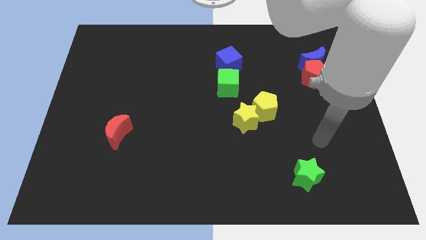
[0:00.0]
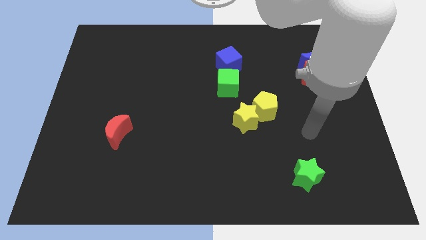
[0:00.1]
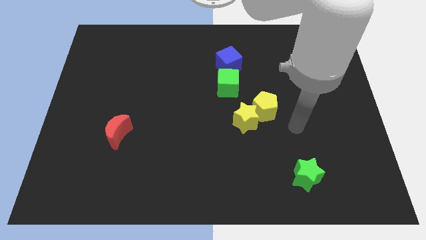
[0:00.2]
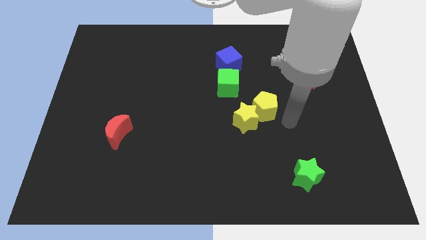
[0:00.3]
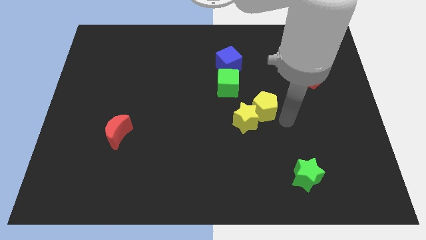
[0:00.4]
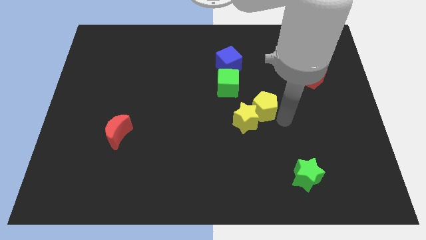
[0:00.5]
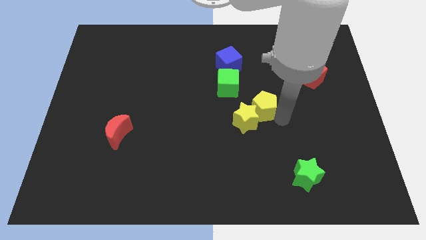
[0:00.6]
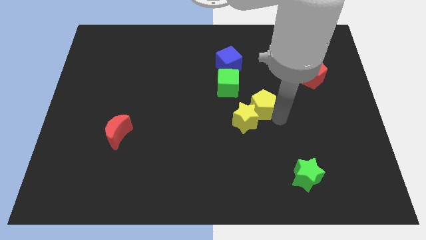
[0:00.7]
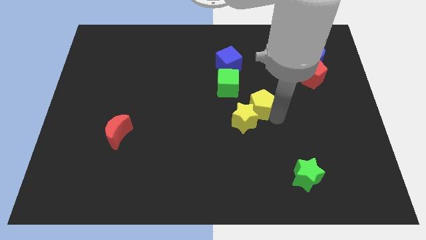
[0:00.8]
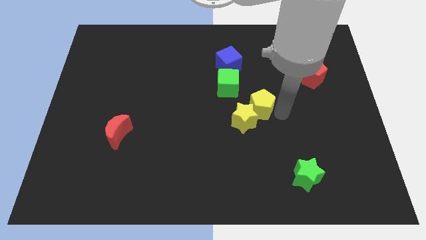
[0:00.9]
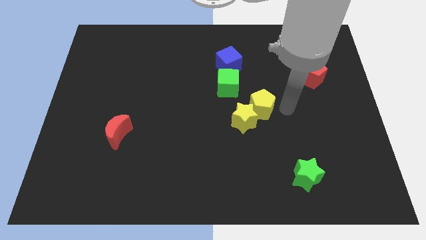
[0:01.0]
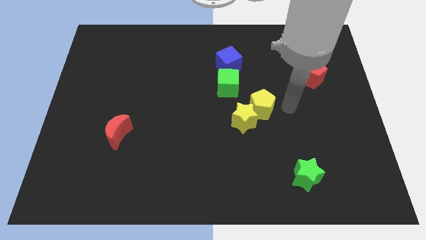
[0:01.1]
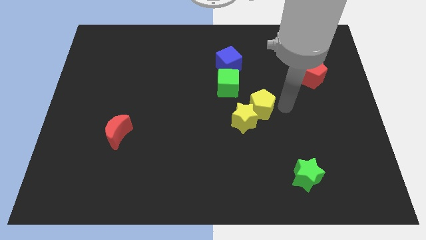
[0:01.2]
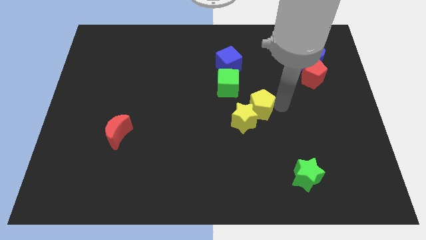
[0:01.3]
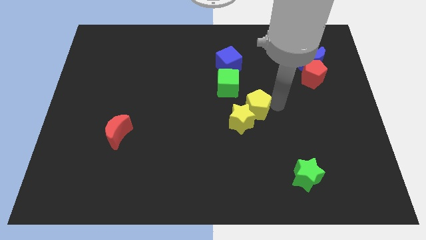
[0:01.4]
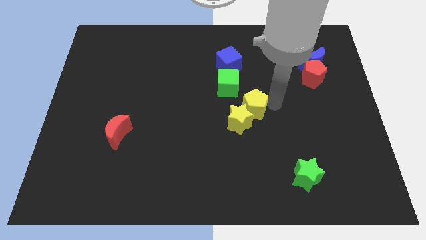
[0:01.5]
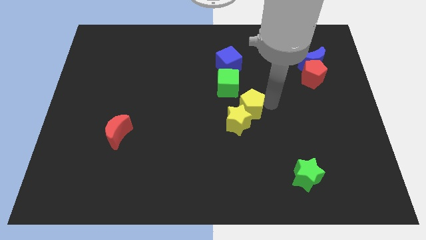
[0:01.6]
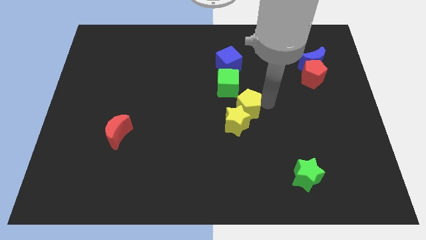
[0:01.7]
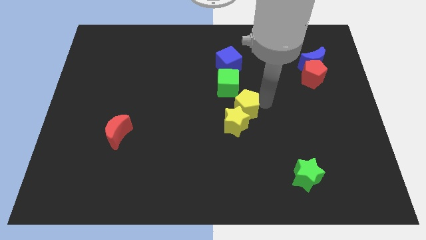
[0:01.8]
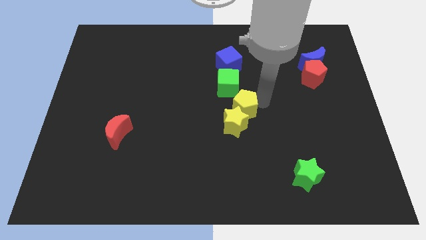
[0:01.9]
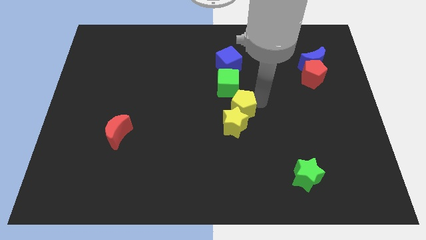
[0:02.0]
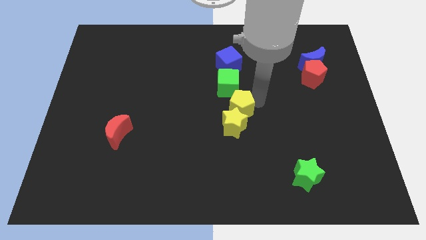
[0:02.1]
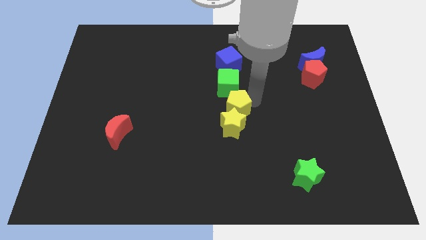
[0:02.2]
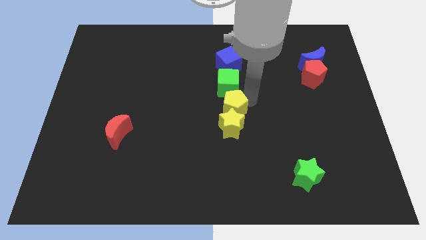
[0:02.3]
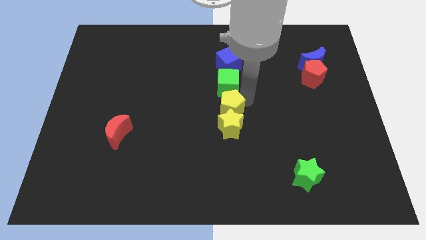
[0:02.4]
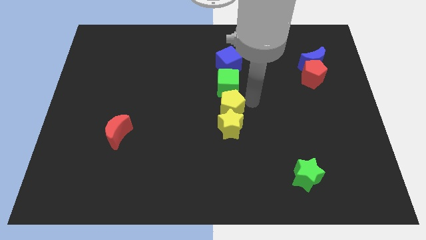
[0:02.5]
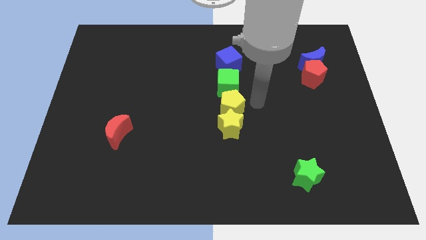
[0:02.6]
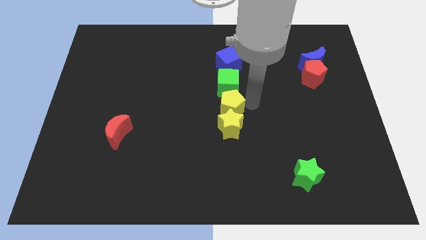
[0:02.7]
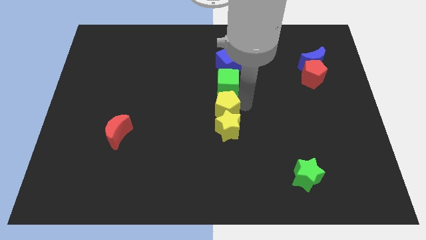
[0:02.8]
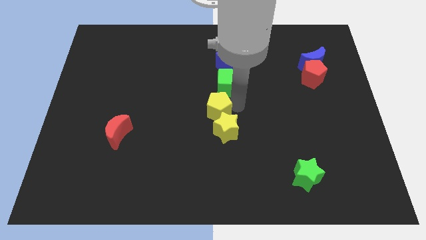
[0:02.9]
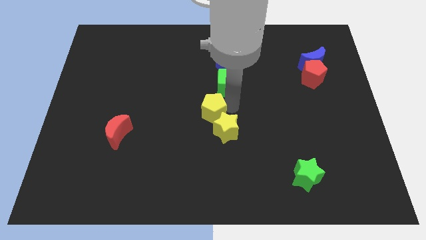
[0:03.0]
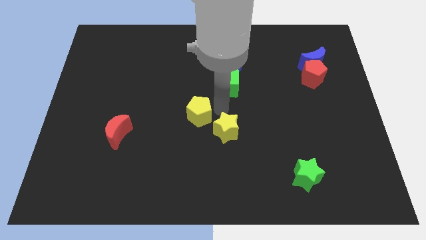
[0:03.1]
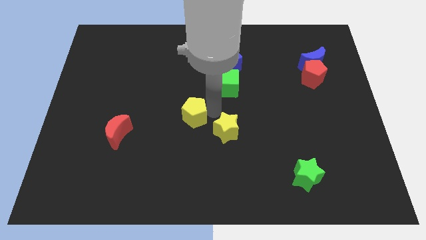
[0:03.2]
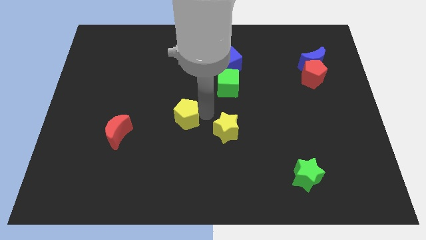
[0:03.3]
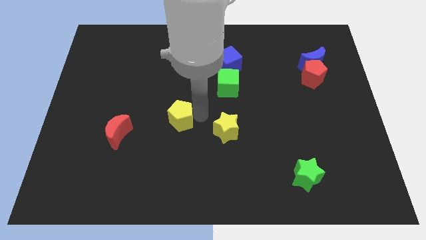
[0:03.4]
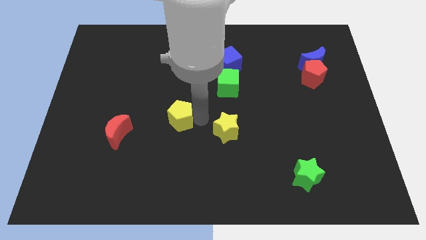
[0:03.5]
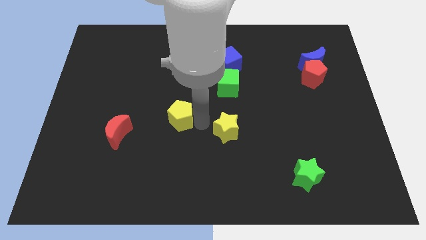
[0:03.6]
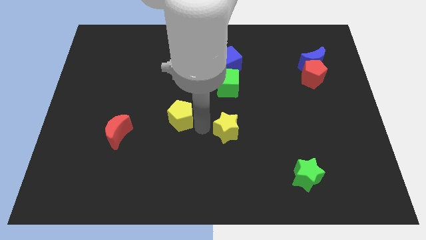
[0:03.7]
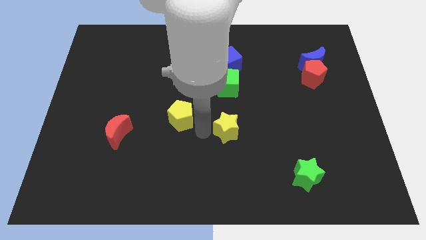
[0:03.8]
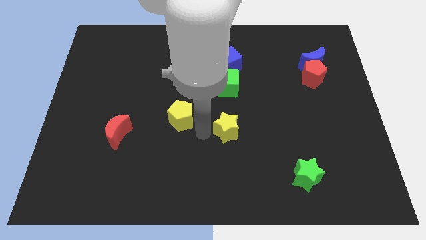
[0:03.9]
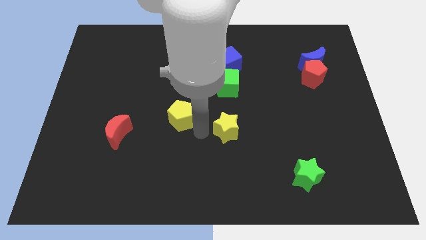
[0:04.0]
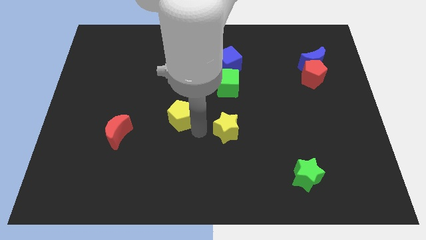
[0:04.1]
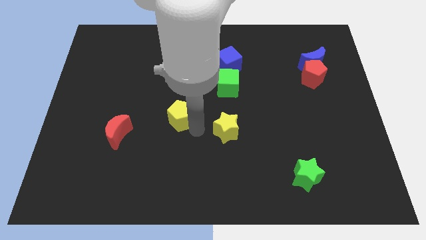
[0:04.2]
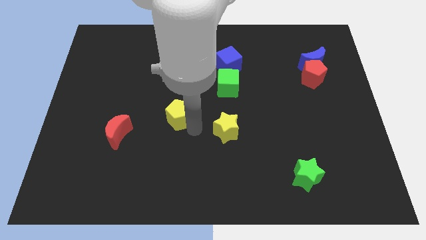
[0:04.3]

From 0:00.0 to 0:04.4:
push the yellow pentagon left

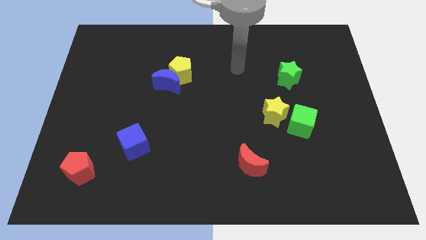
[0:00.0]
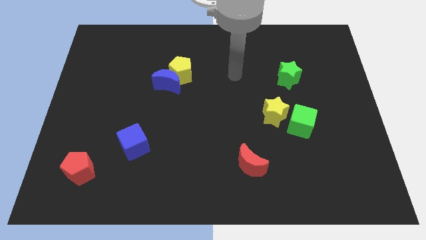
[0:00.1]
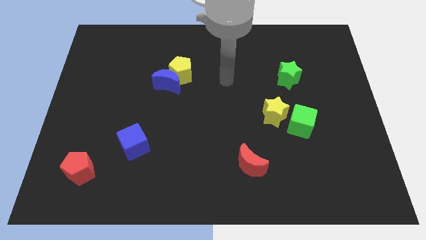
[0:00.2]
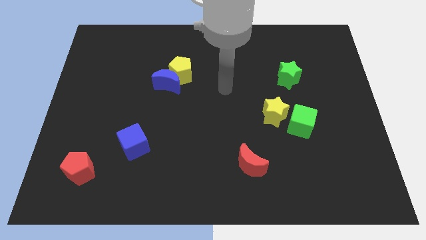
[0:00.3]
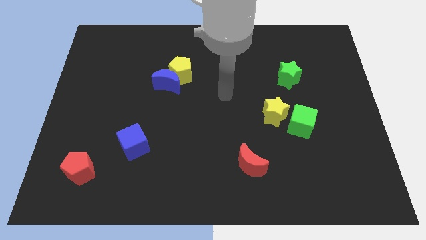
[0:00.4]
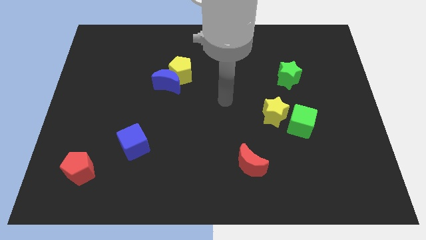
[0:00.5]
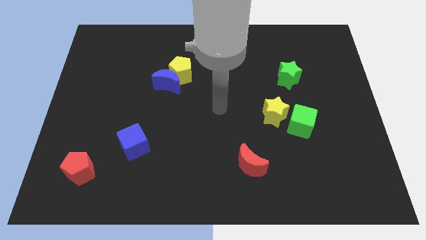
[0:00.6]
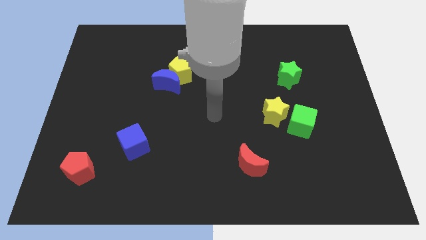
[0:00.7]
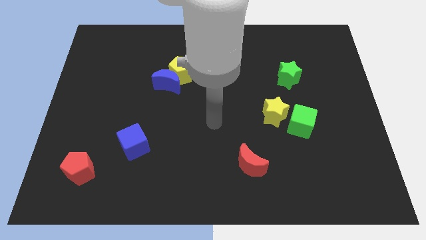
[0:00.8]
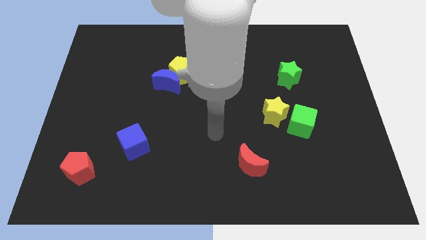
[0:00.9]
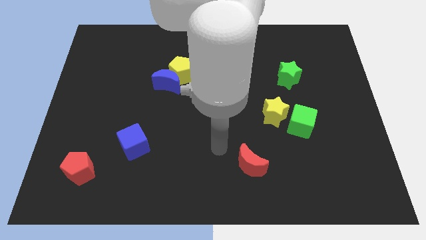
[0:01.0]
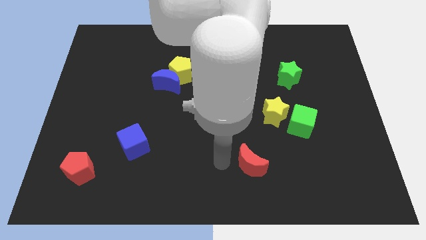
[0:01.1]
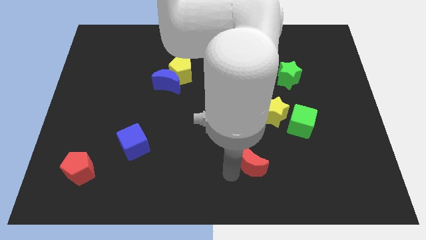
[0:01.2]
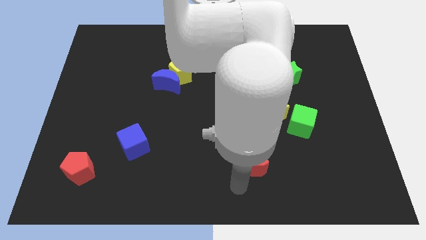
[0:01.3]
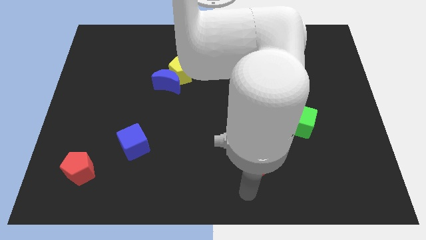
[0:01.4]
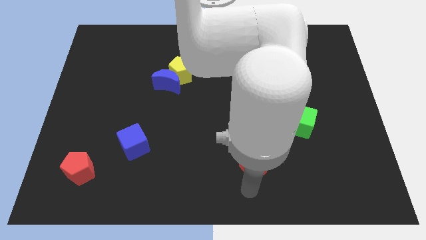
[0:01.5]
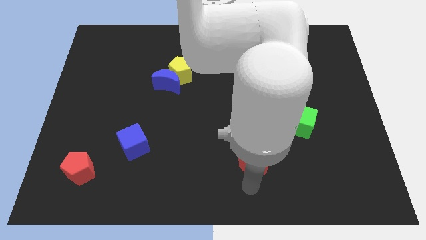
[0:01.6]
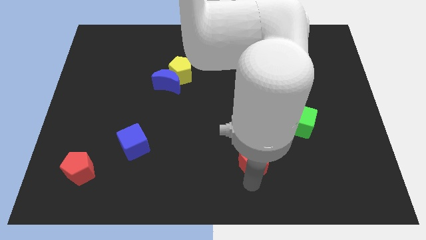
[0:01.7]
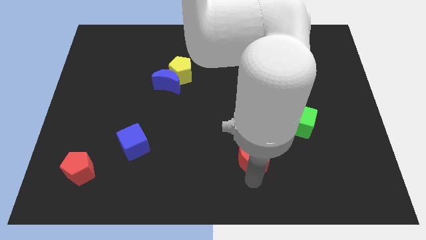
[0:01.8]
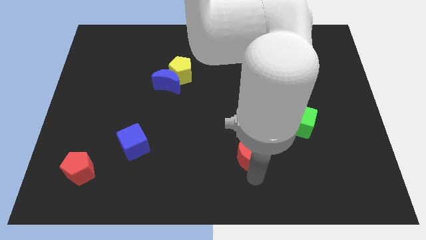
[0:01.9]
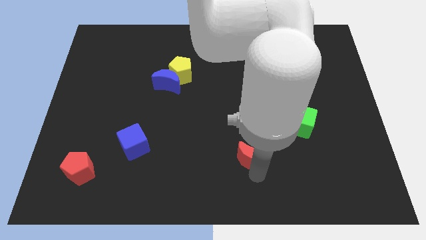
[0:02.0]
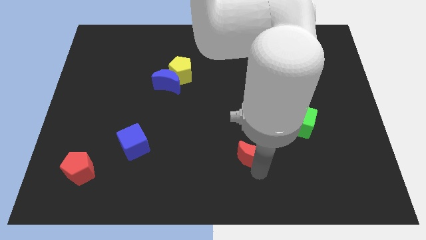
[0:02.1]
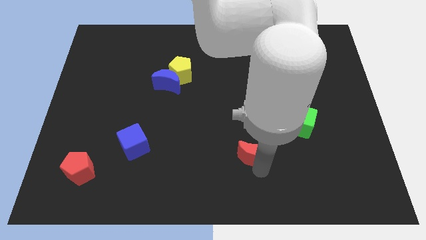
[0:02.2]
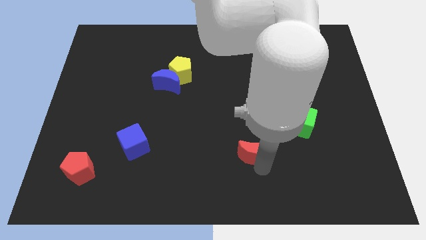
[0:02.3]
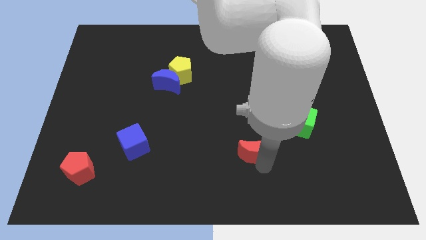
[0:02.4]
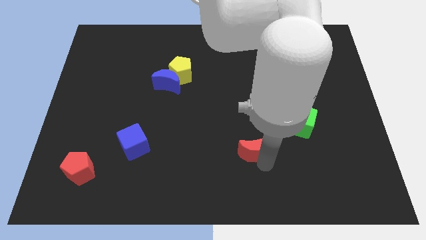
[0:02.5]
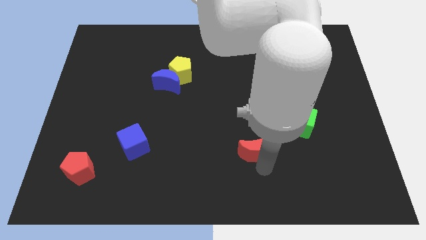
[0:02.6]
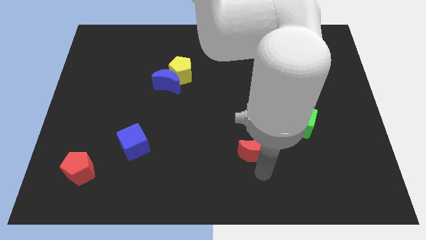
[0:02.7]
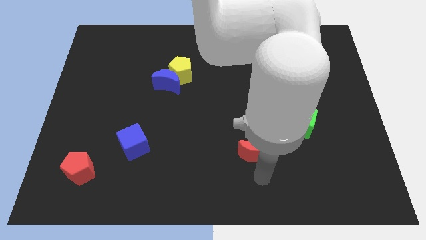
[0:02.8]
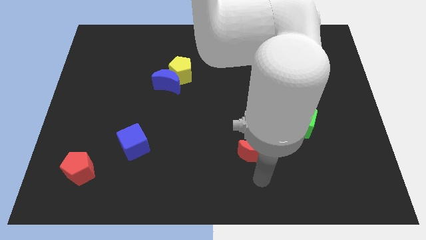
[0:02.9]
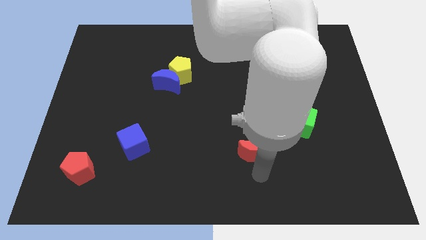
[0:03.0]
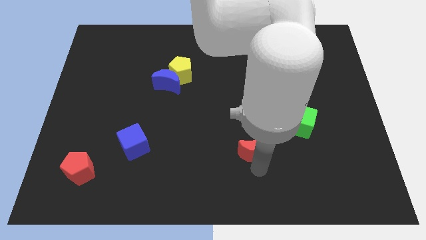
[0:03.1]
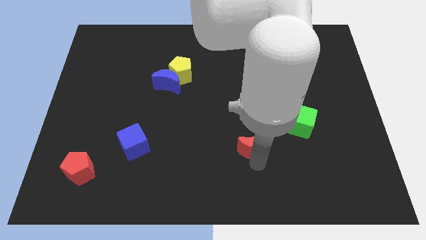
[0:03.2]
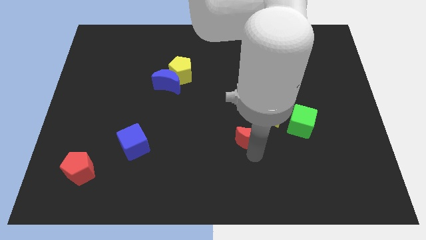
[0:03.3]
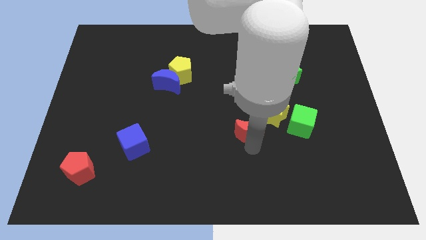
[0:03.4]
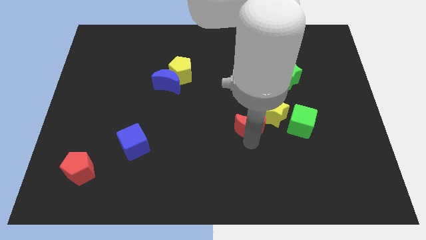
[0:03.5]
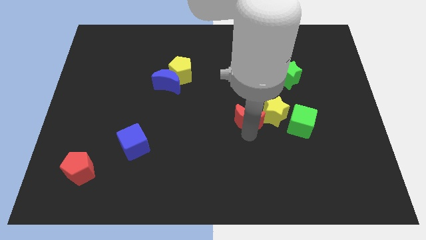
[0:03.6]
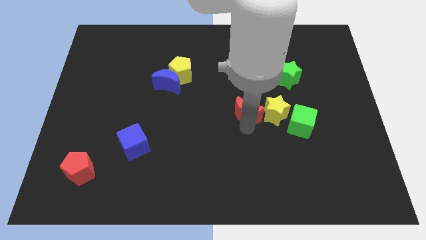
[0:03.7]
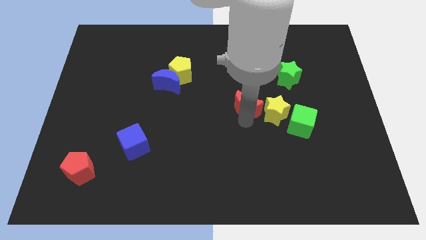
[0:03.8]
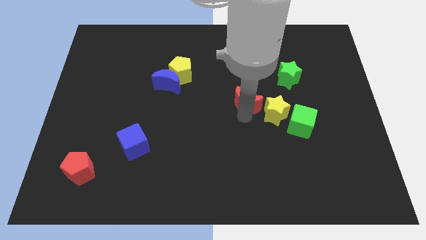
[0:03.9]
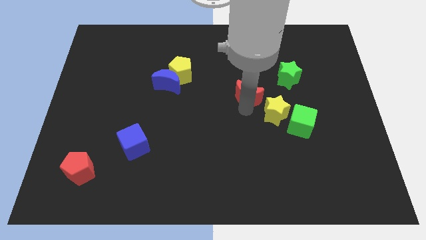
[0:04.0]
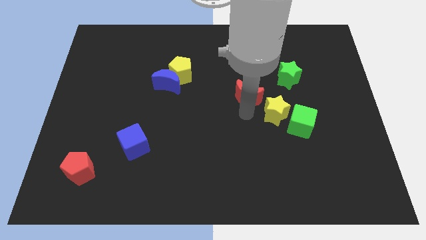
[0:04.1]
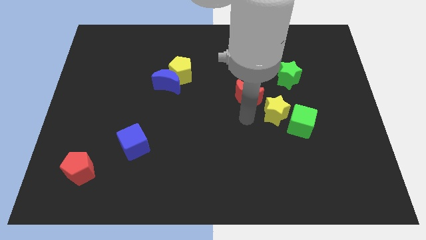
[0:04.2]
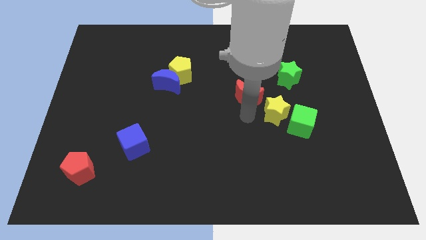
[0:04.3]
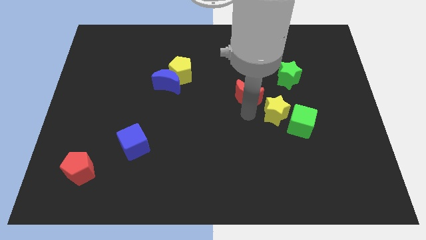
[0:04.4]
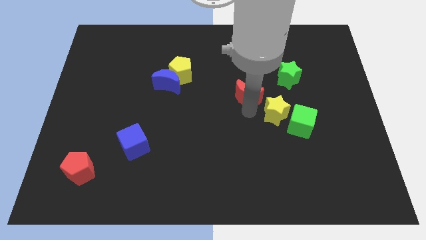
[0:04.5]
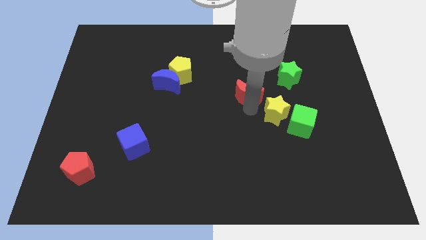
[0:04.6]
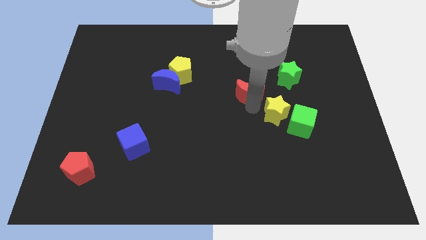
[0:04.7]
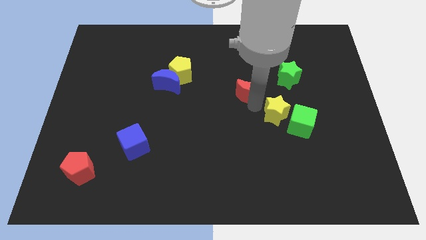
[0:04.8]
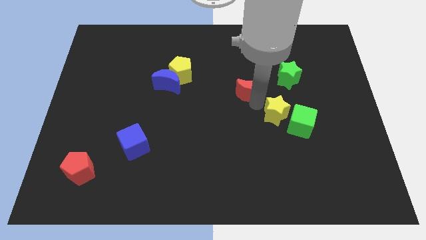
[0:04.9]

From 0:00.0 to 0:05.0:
push the red moon upwards
